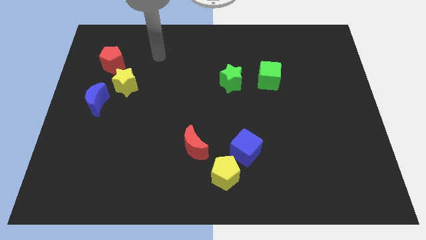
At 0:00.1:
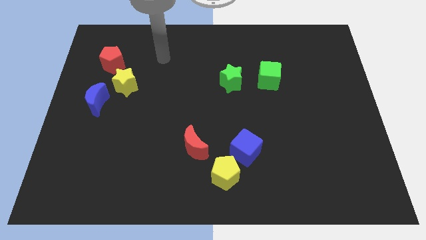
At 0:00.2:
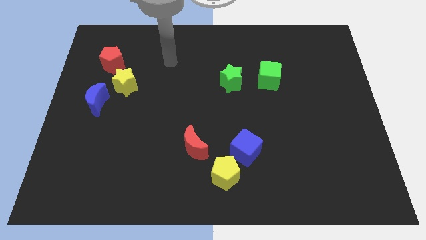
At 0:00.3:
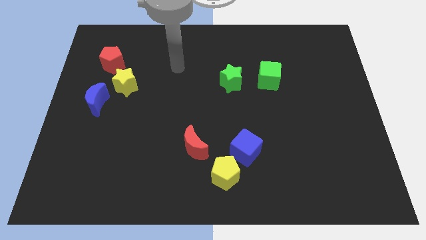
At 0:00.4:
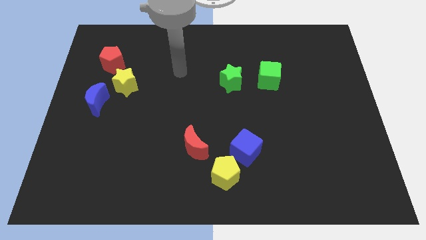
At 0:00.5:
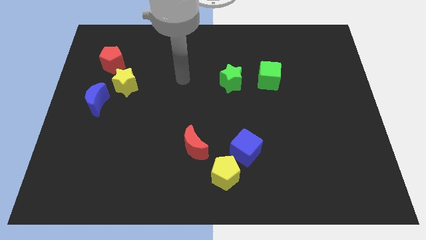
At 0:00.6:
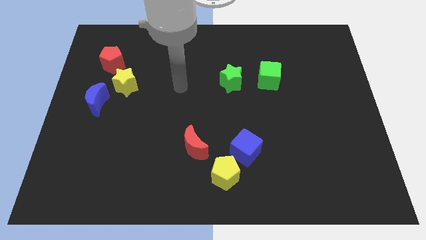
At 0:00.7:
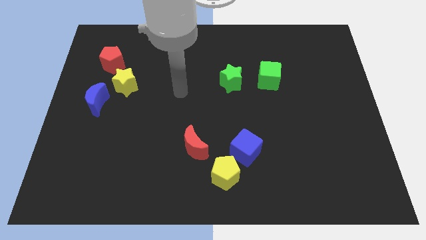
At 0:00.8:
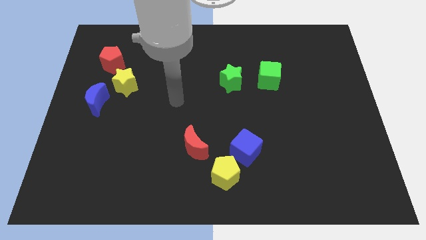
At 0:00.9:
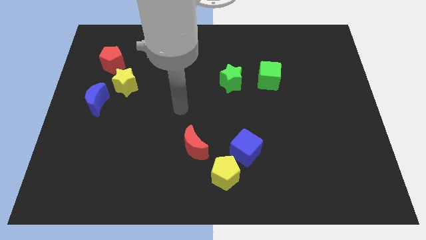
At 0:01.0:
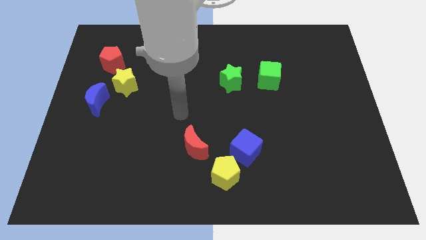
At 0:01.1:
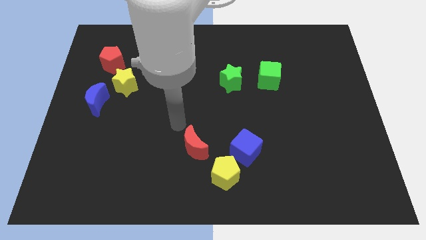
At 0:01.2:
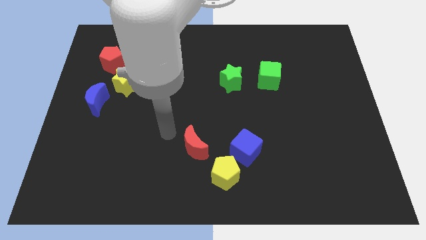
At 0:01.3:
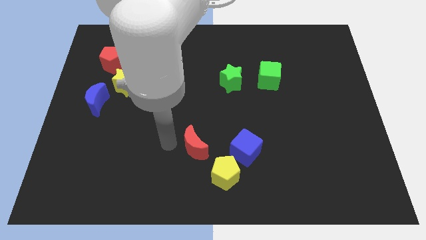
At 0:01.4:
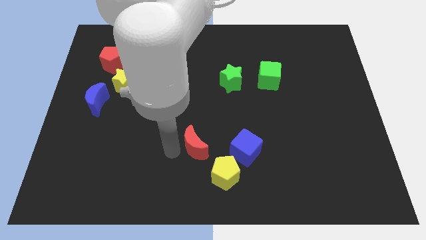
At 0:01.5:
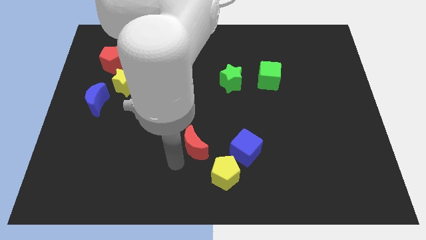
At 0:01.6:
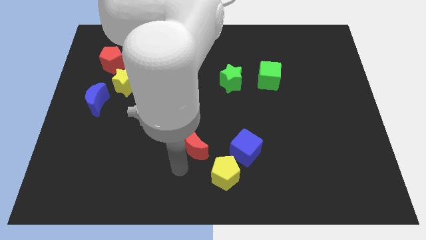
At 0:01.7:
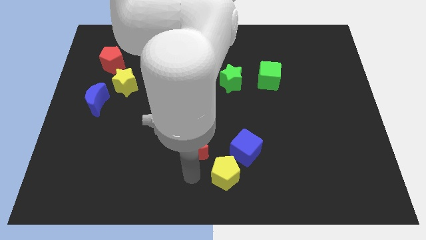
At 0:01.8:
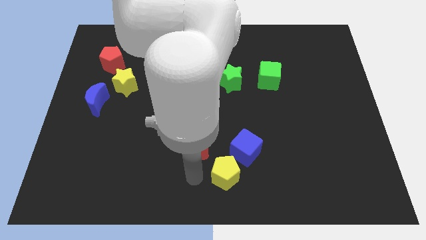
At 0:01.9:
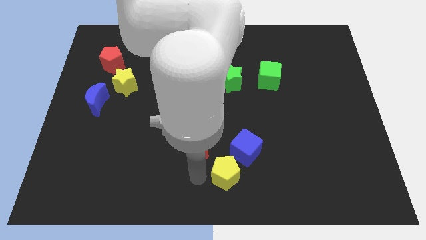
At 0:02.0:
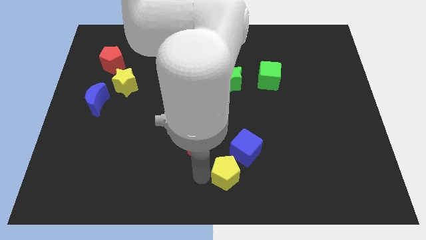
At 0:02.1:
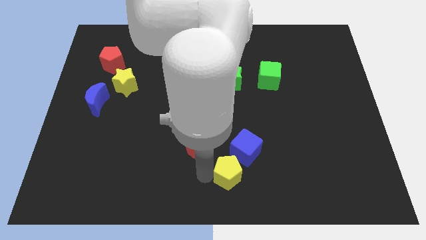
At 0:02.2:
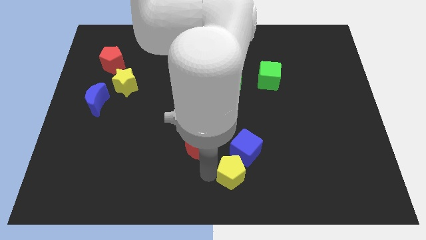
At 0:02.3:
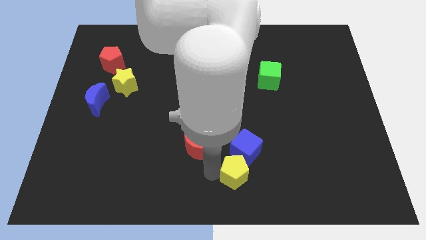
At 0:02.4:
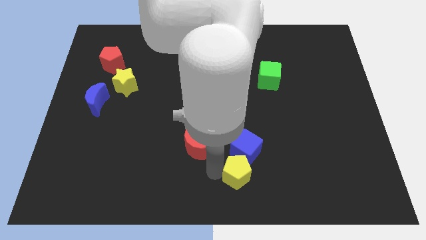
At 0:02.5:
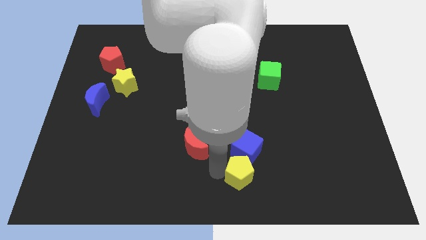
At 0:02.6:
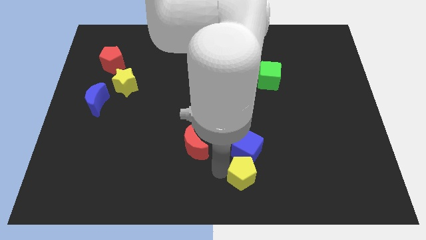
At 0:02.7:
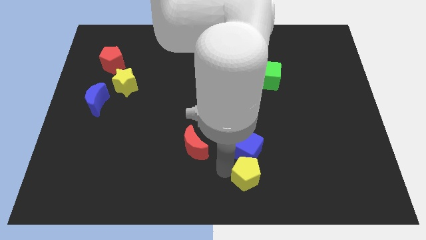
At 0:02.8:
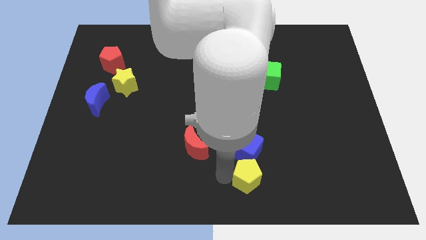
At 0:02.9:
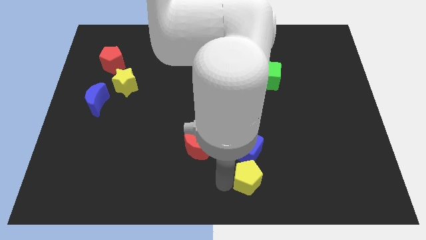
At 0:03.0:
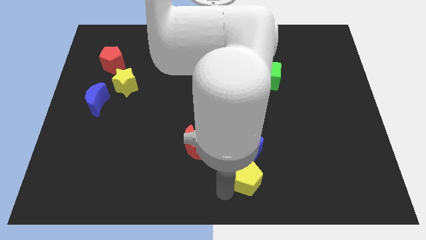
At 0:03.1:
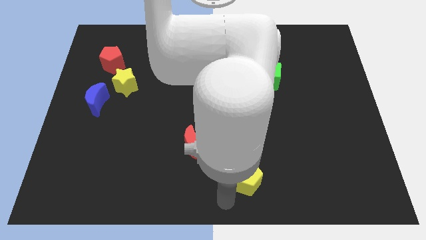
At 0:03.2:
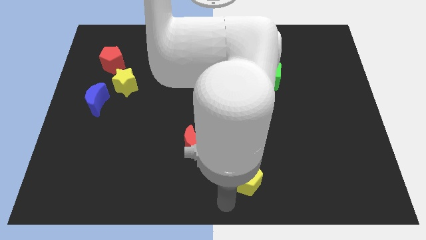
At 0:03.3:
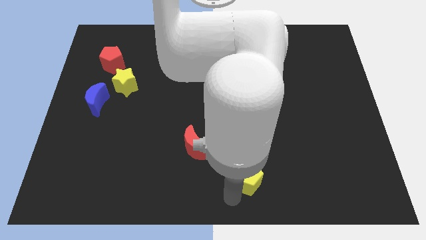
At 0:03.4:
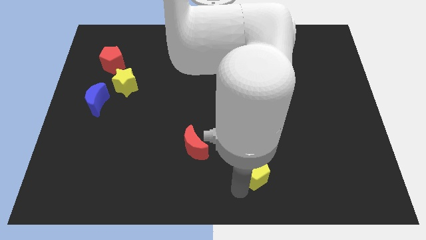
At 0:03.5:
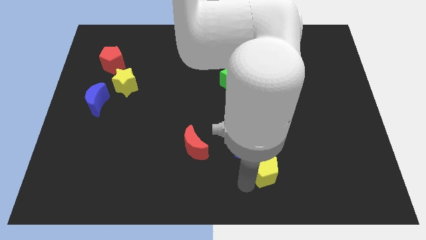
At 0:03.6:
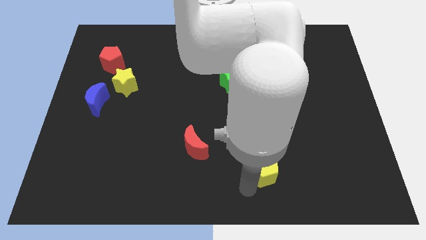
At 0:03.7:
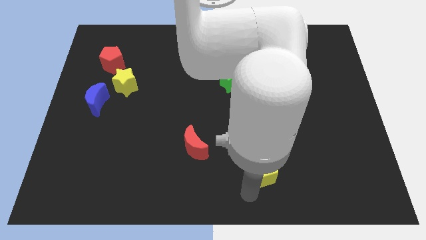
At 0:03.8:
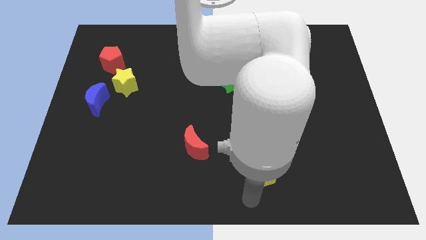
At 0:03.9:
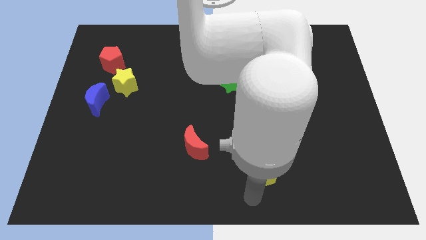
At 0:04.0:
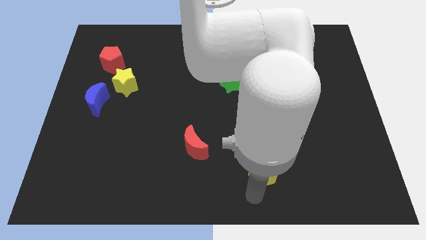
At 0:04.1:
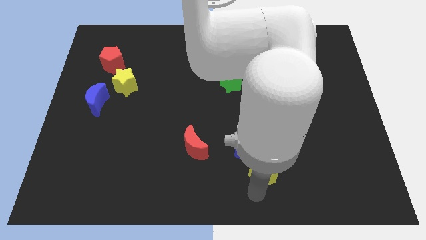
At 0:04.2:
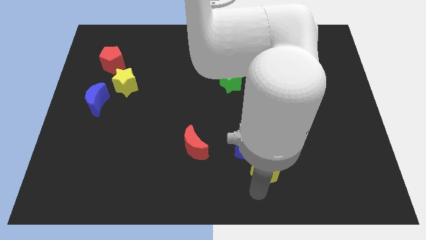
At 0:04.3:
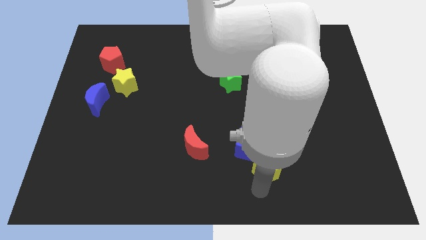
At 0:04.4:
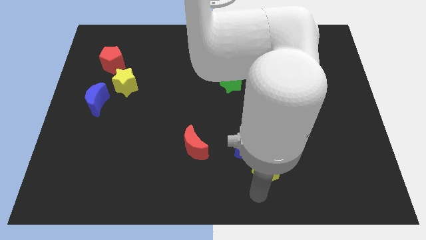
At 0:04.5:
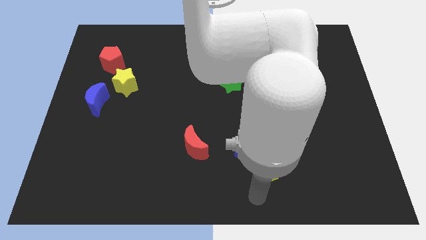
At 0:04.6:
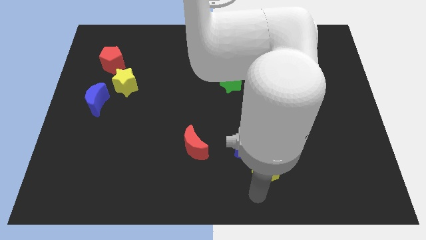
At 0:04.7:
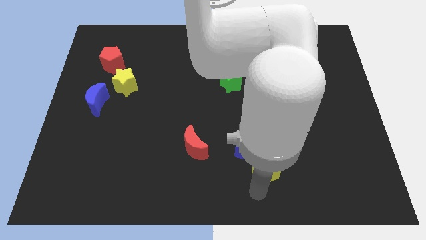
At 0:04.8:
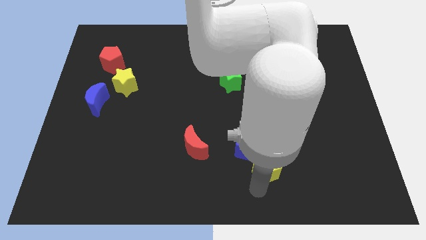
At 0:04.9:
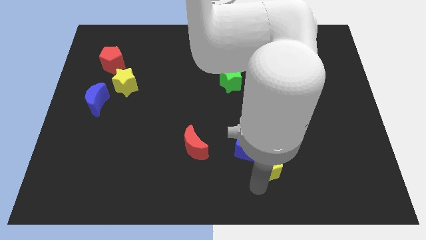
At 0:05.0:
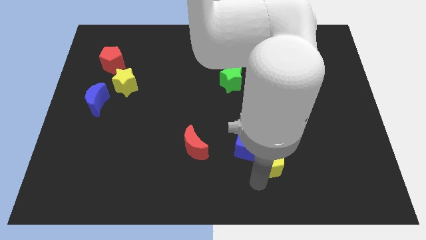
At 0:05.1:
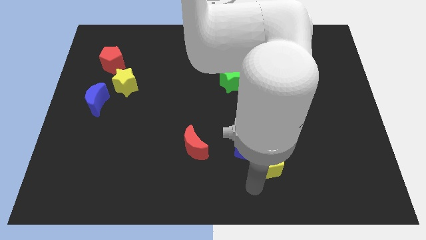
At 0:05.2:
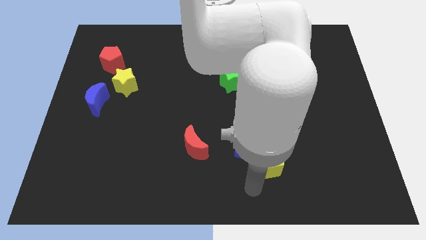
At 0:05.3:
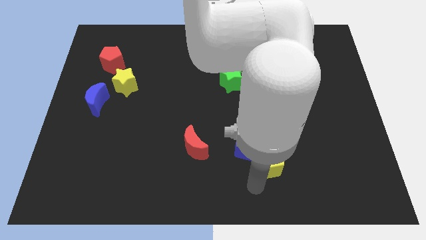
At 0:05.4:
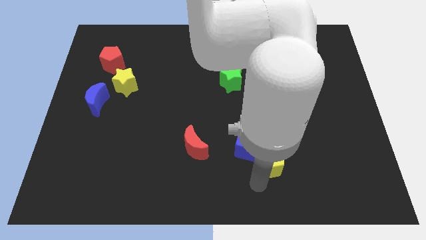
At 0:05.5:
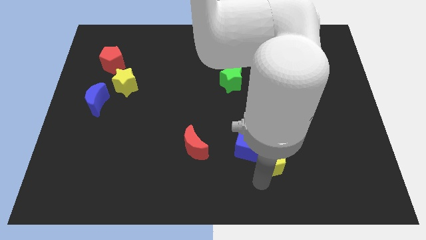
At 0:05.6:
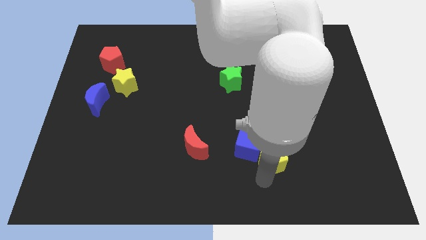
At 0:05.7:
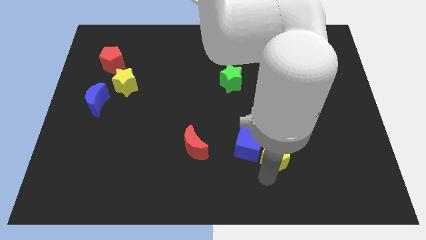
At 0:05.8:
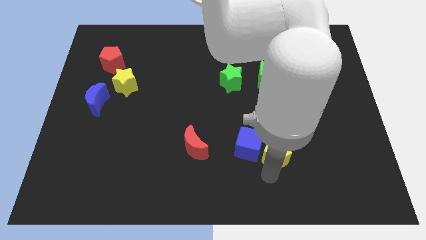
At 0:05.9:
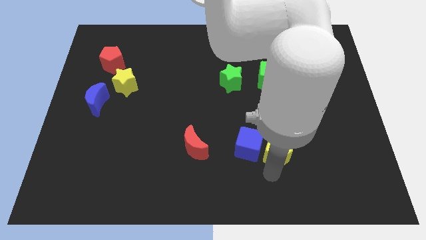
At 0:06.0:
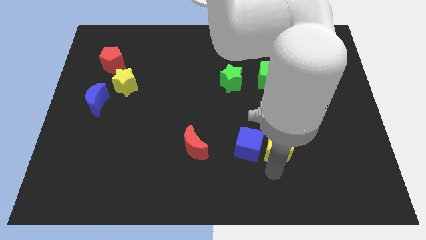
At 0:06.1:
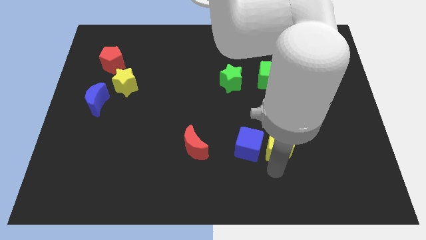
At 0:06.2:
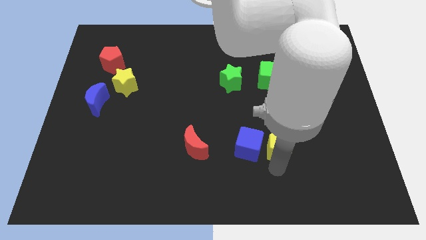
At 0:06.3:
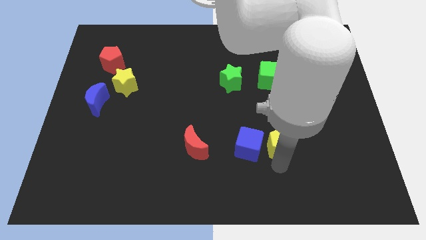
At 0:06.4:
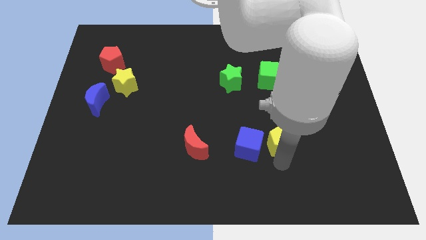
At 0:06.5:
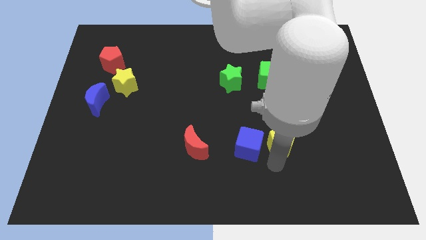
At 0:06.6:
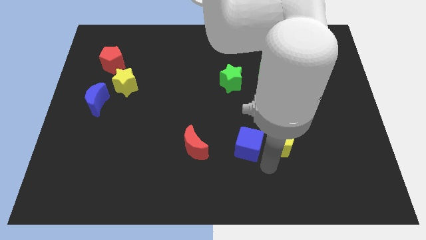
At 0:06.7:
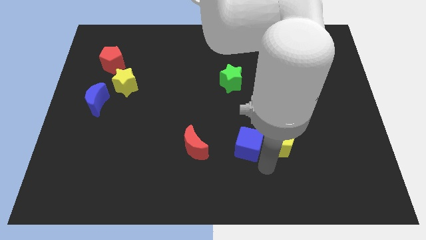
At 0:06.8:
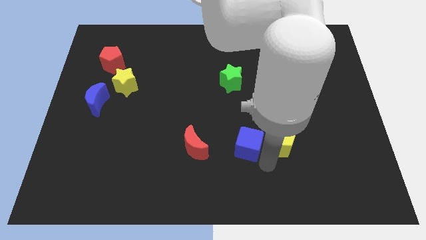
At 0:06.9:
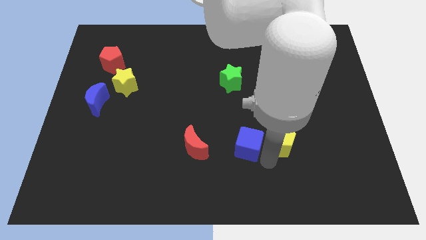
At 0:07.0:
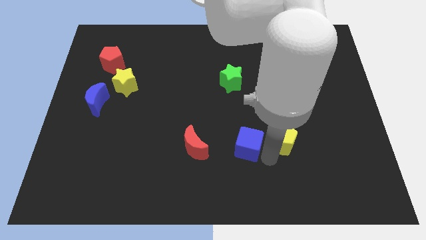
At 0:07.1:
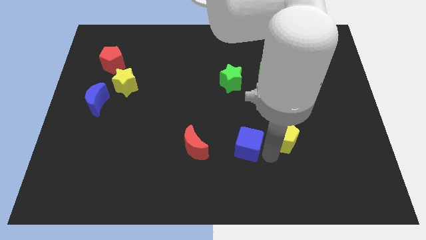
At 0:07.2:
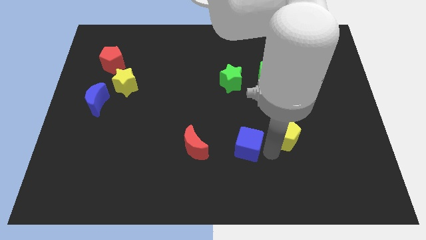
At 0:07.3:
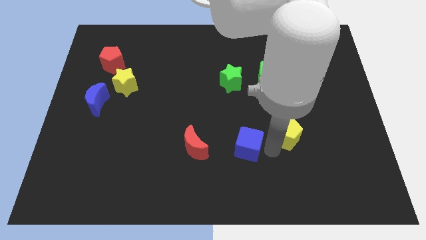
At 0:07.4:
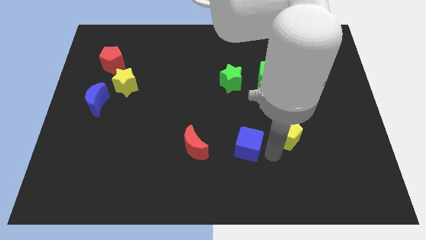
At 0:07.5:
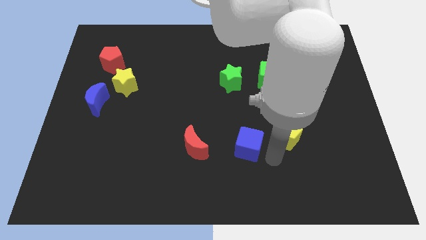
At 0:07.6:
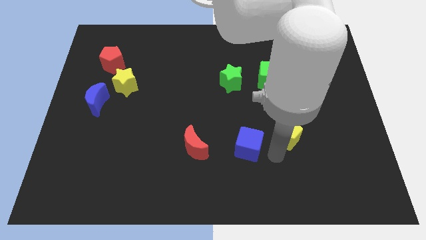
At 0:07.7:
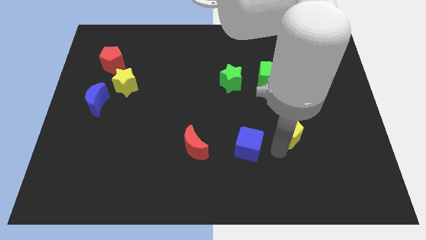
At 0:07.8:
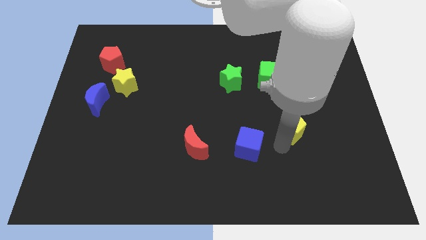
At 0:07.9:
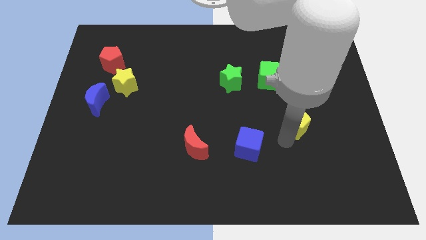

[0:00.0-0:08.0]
move the yellow pentagon upwards and right
